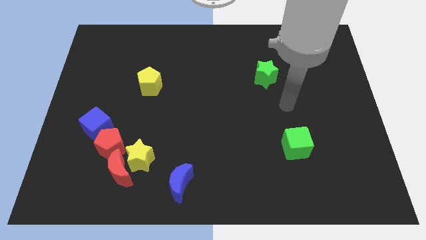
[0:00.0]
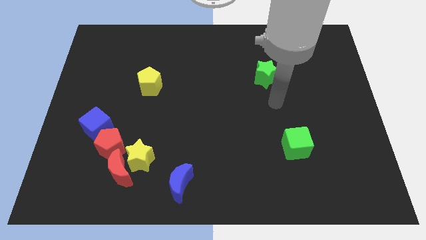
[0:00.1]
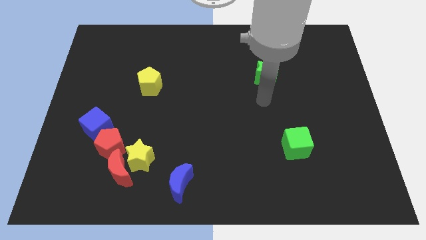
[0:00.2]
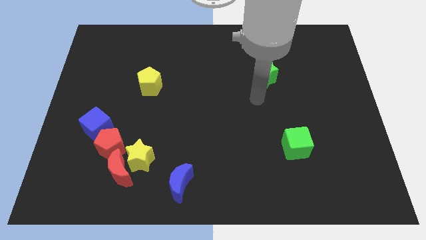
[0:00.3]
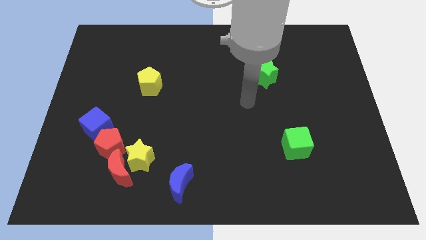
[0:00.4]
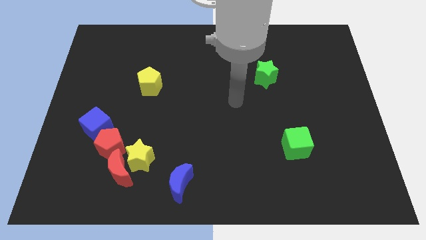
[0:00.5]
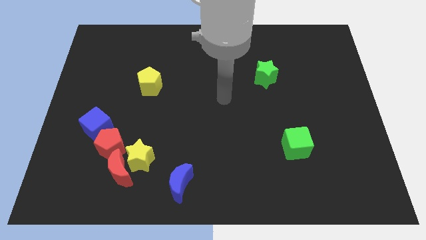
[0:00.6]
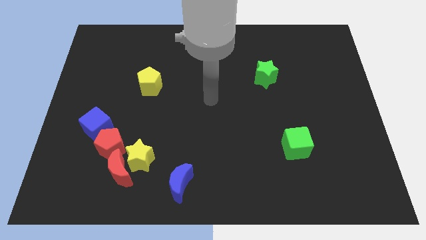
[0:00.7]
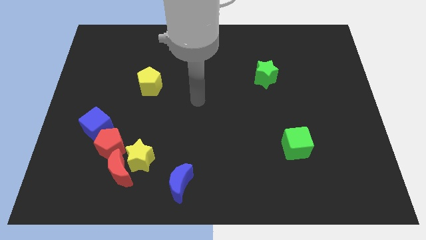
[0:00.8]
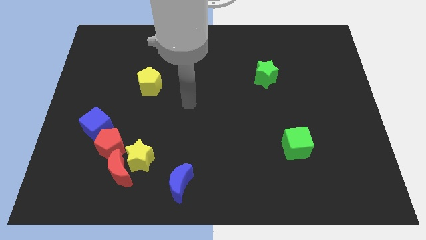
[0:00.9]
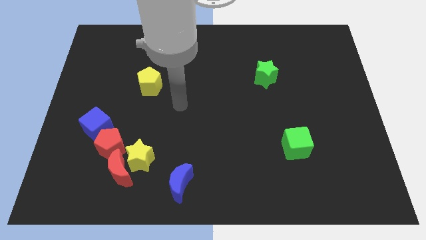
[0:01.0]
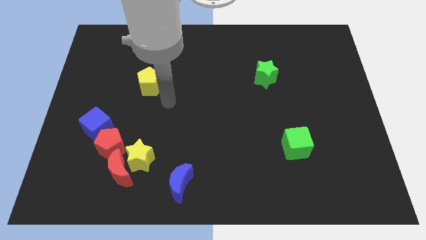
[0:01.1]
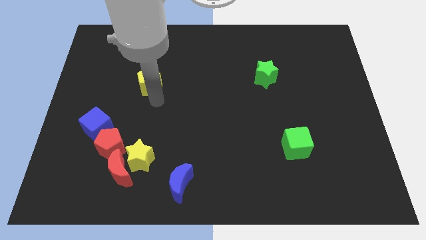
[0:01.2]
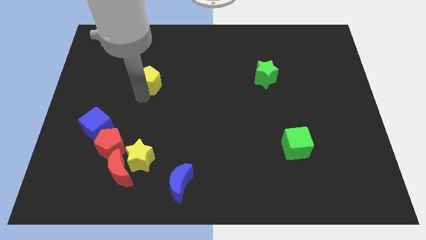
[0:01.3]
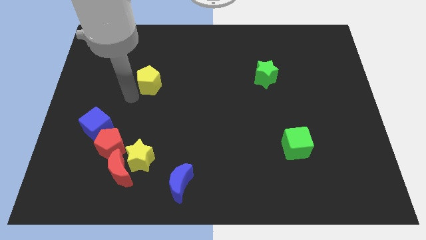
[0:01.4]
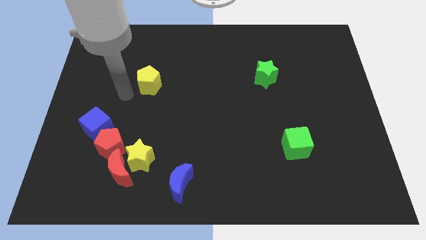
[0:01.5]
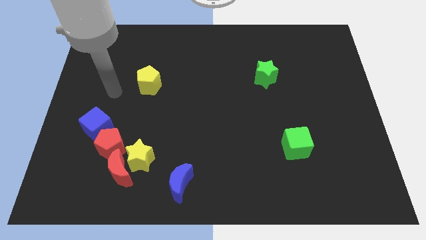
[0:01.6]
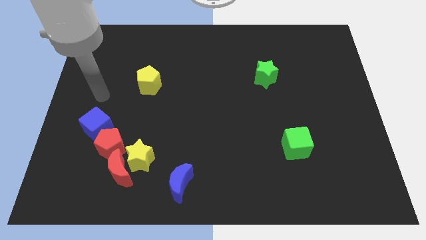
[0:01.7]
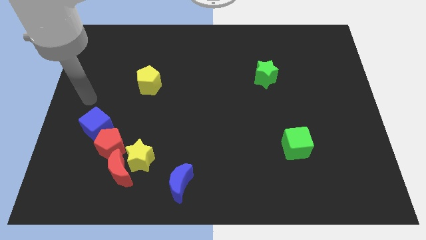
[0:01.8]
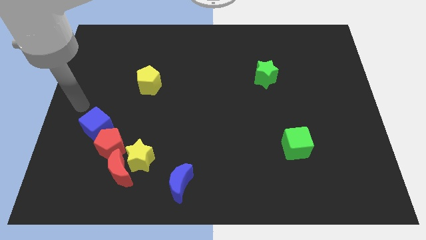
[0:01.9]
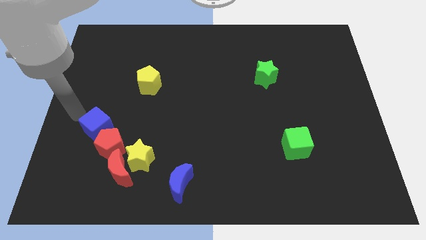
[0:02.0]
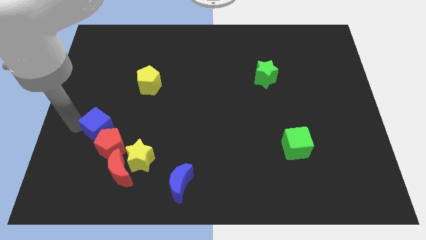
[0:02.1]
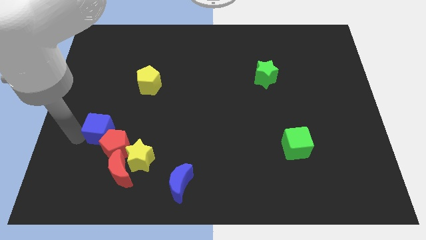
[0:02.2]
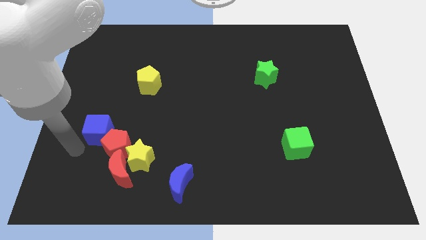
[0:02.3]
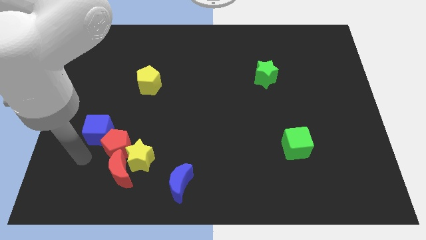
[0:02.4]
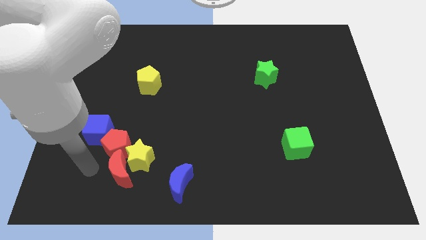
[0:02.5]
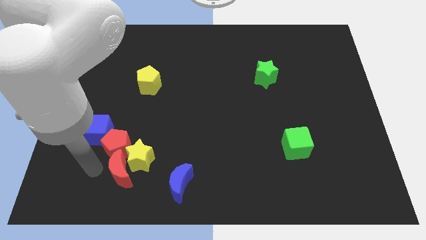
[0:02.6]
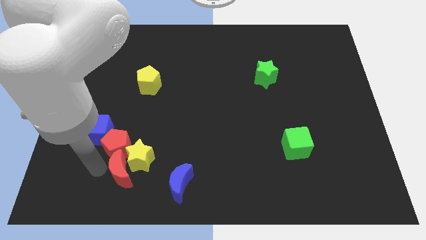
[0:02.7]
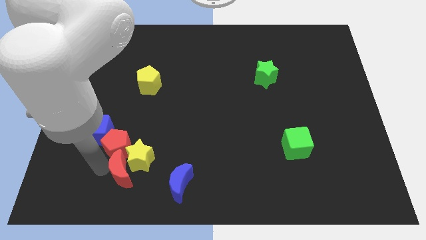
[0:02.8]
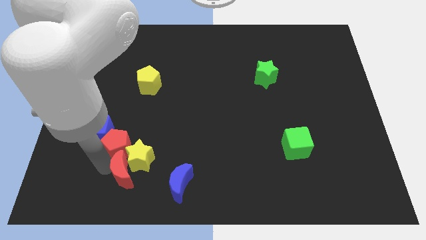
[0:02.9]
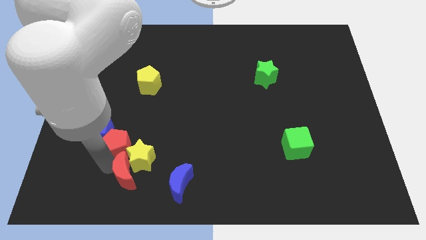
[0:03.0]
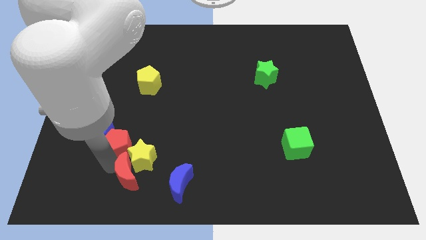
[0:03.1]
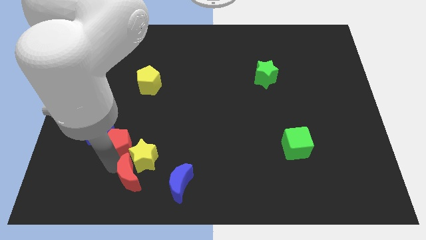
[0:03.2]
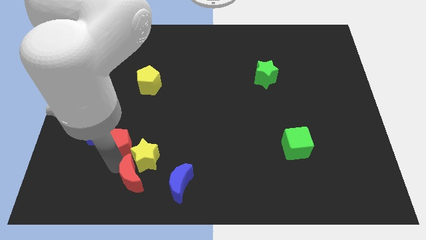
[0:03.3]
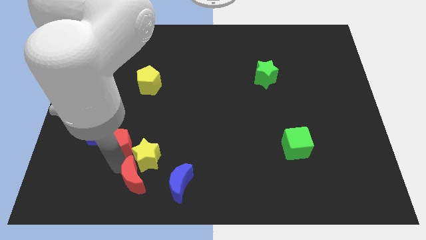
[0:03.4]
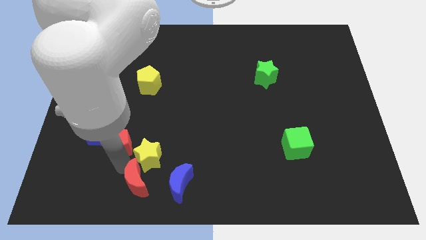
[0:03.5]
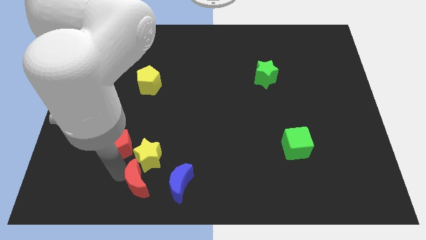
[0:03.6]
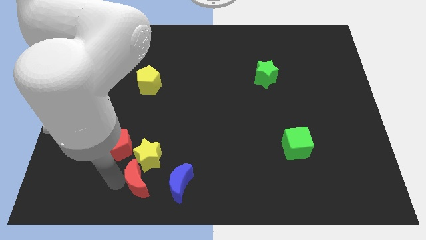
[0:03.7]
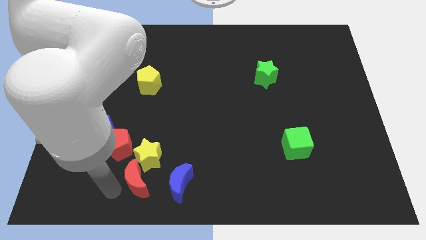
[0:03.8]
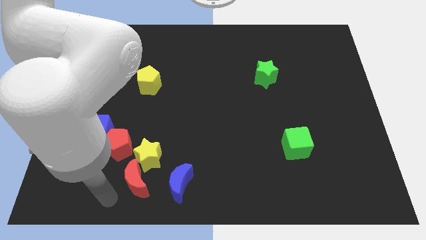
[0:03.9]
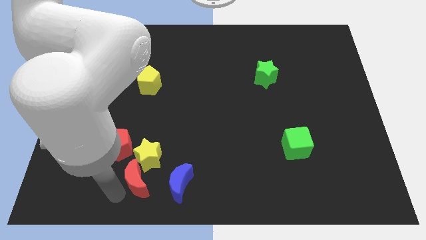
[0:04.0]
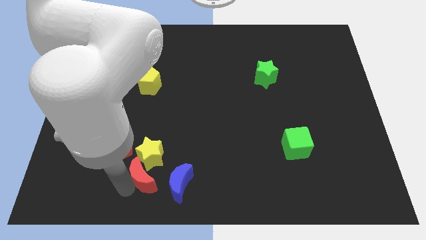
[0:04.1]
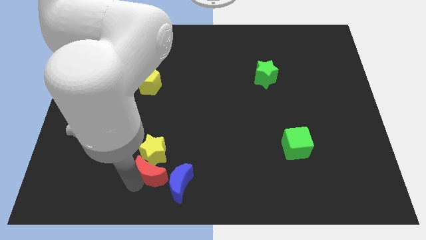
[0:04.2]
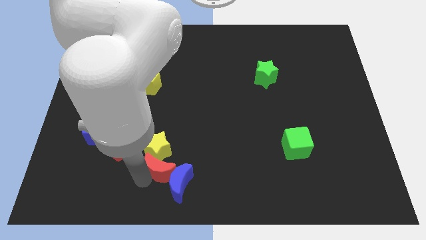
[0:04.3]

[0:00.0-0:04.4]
move the red moon to the right a little bit

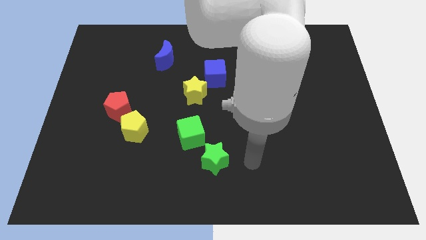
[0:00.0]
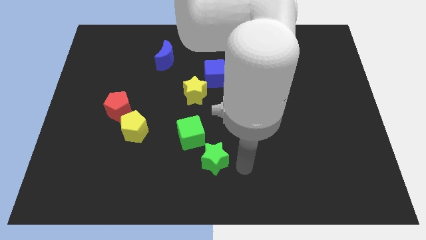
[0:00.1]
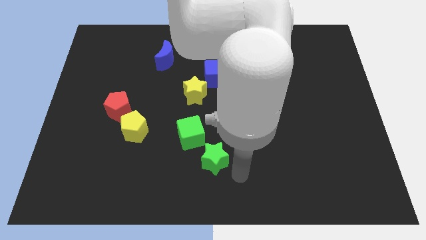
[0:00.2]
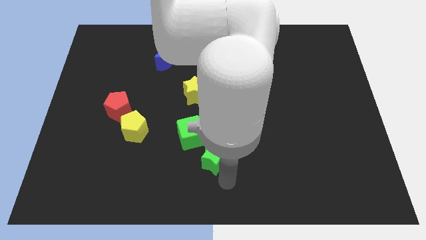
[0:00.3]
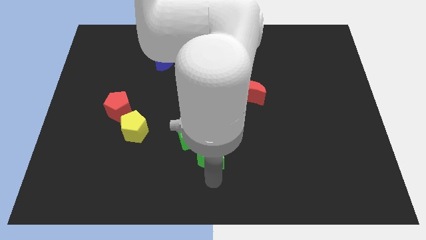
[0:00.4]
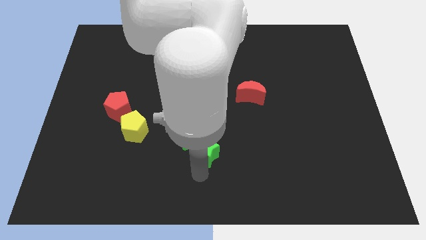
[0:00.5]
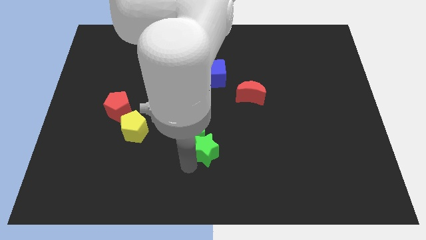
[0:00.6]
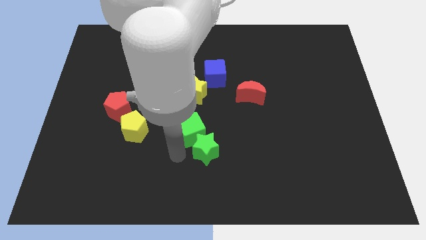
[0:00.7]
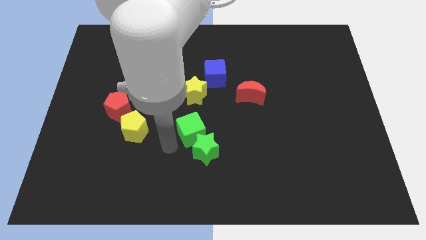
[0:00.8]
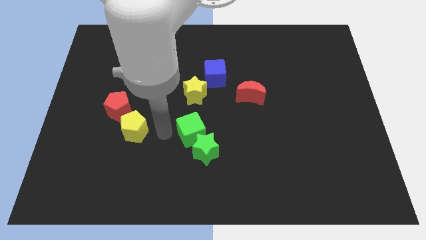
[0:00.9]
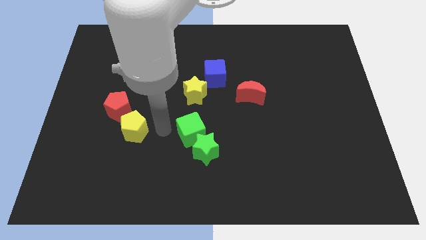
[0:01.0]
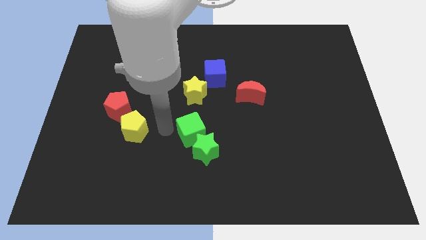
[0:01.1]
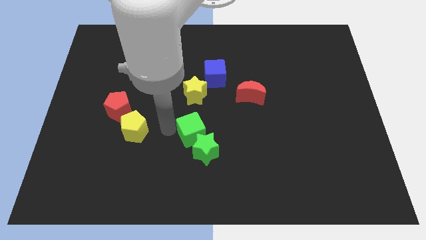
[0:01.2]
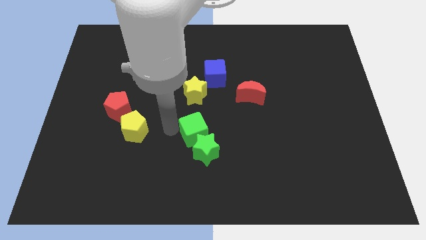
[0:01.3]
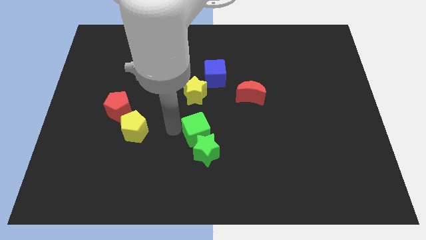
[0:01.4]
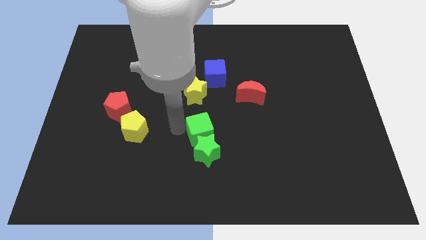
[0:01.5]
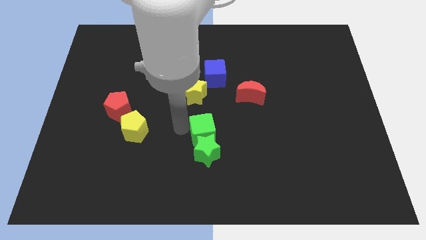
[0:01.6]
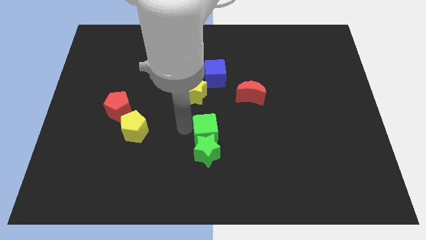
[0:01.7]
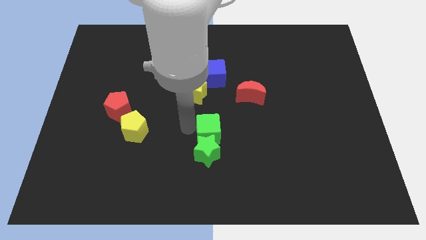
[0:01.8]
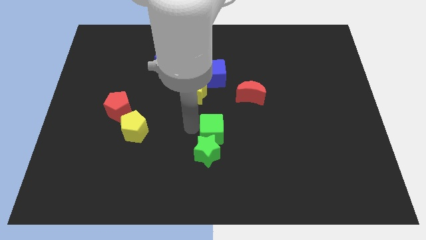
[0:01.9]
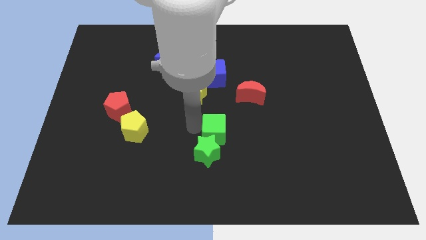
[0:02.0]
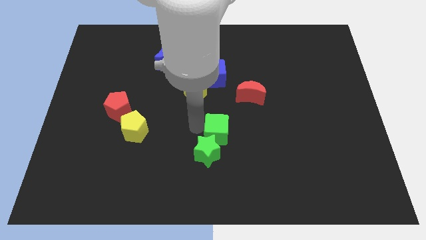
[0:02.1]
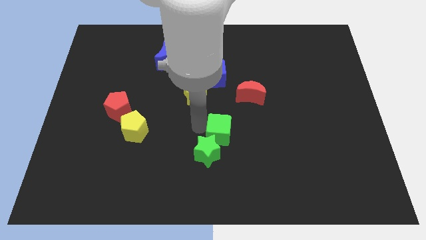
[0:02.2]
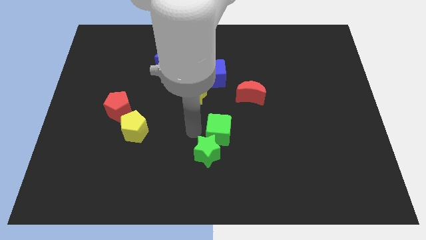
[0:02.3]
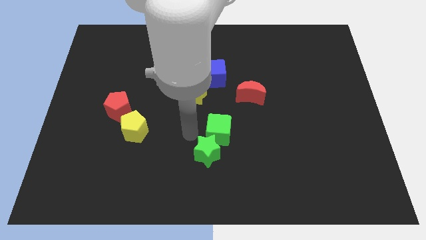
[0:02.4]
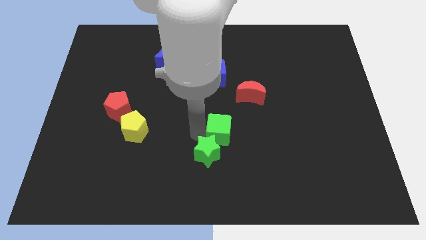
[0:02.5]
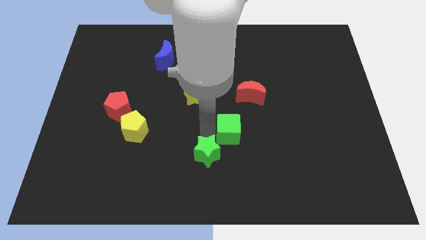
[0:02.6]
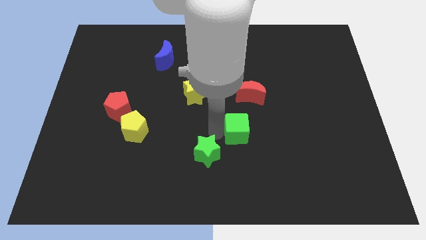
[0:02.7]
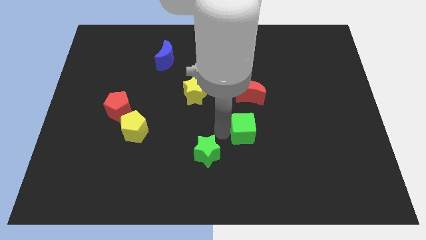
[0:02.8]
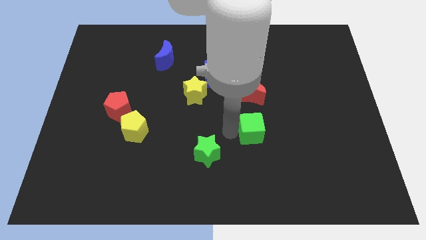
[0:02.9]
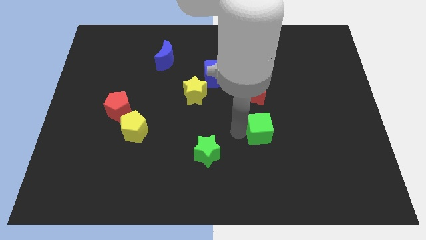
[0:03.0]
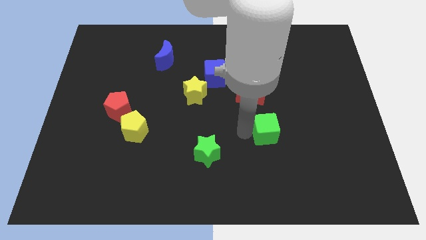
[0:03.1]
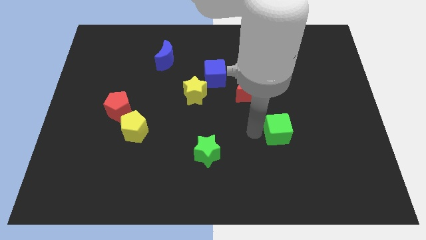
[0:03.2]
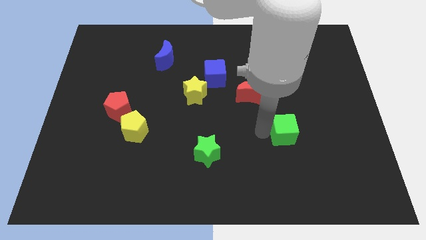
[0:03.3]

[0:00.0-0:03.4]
slide the green cube to the right
